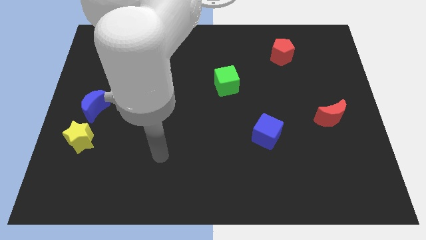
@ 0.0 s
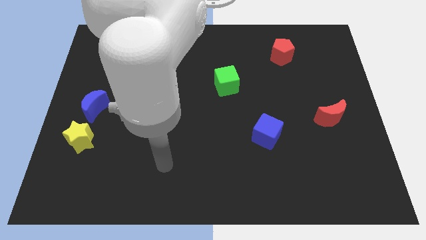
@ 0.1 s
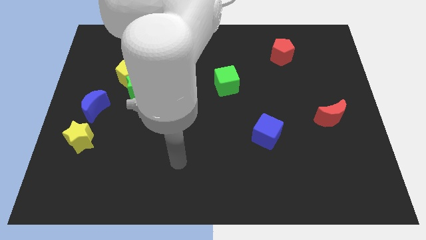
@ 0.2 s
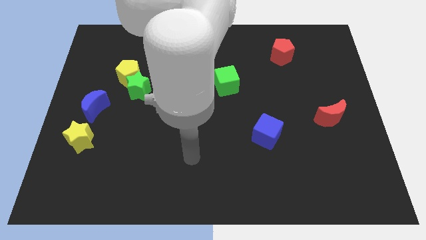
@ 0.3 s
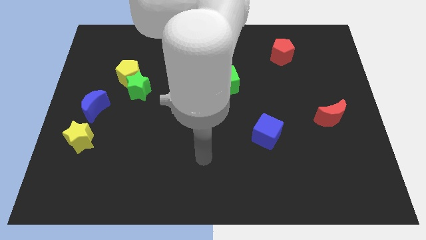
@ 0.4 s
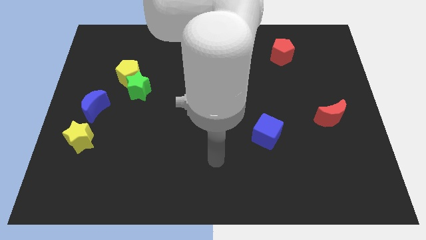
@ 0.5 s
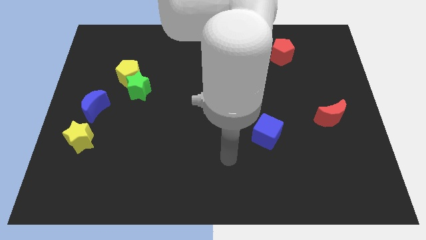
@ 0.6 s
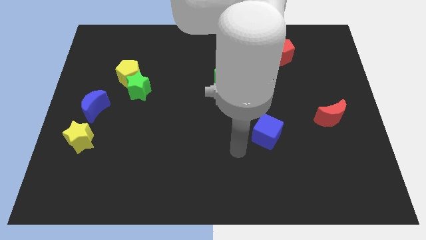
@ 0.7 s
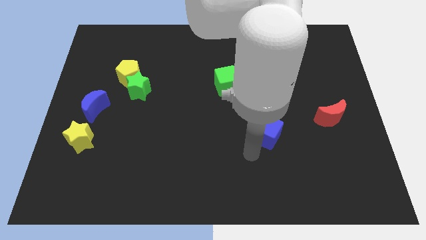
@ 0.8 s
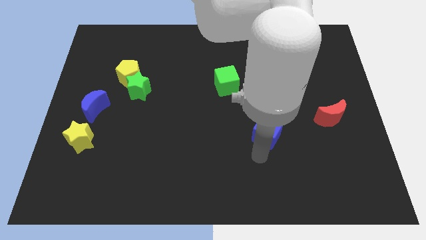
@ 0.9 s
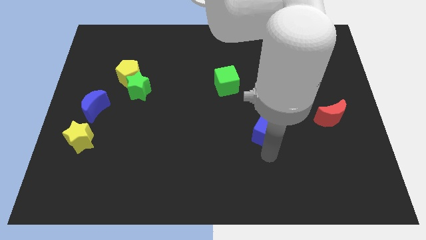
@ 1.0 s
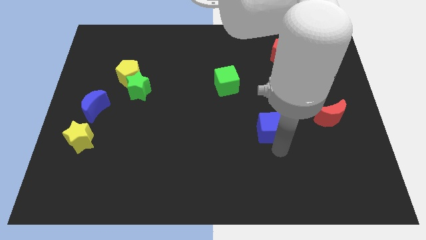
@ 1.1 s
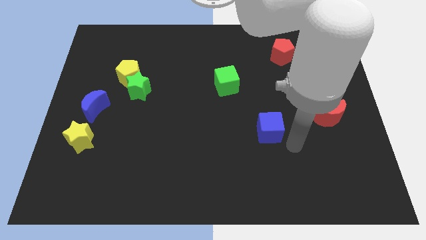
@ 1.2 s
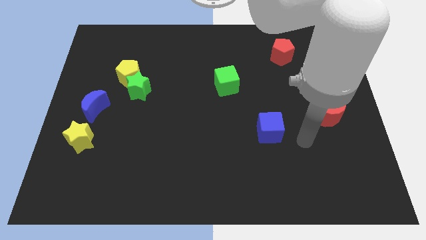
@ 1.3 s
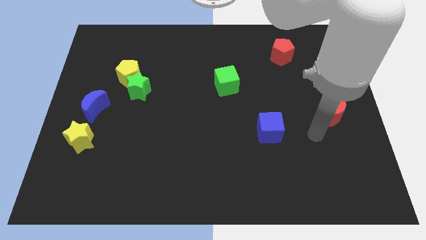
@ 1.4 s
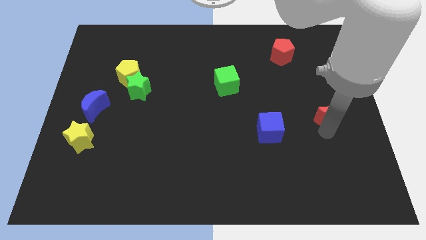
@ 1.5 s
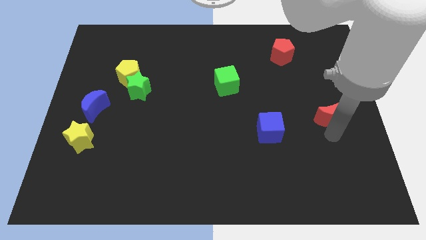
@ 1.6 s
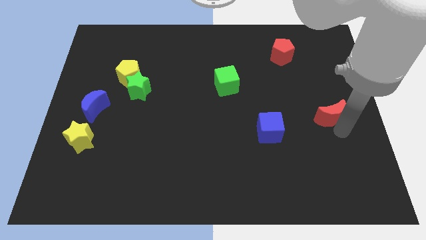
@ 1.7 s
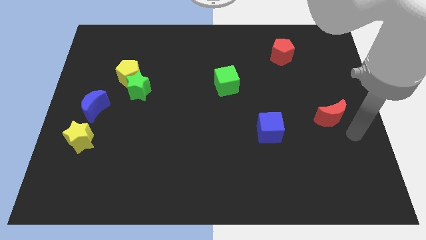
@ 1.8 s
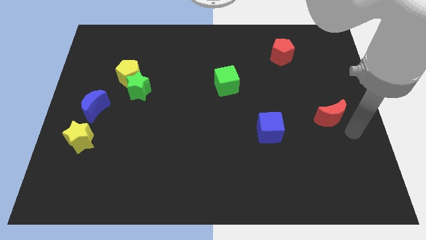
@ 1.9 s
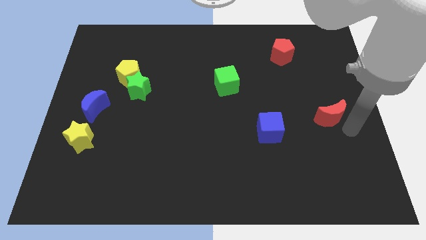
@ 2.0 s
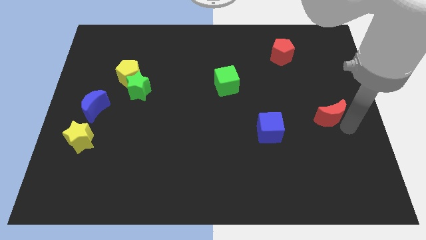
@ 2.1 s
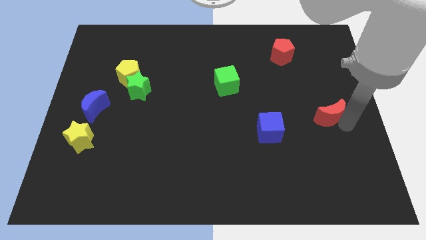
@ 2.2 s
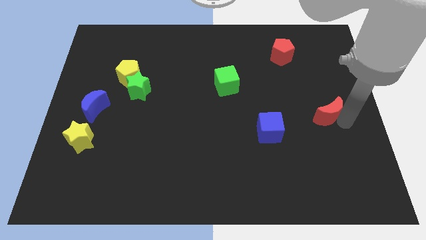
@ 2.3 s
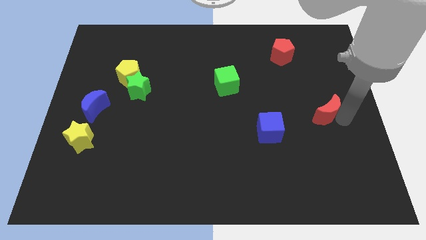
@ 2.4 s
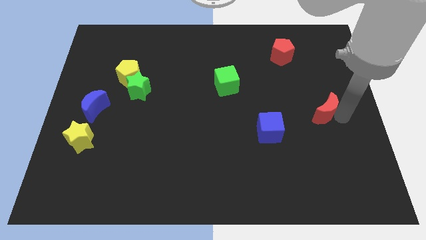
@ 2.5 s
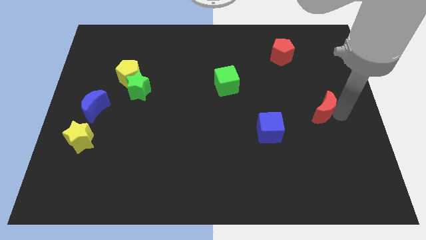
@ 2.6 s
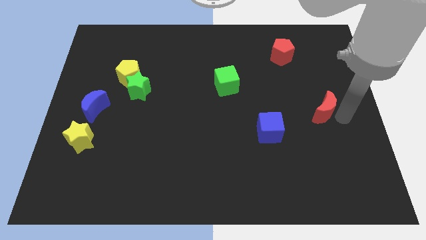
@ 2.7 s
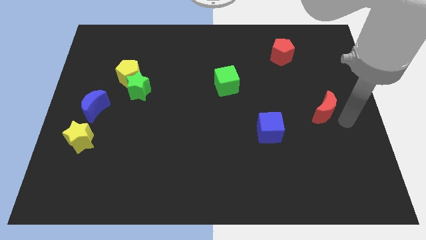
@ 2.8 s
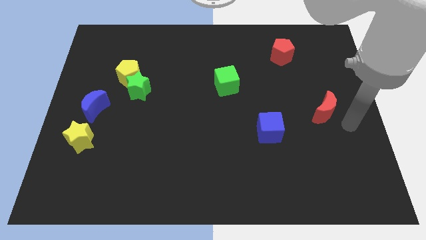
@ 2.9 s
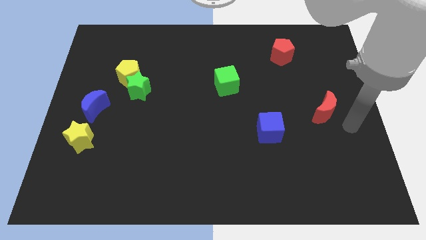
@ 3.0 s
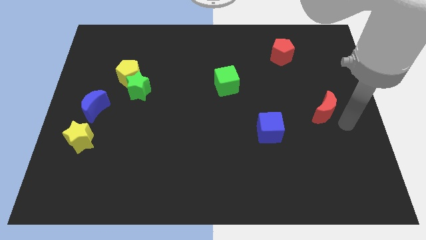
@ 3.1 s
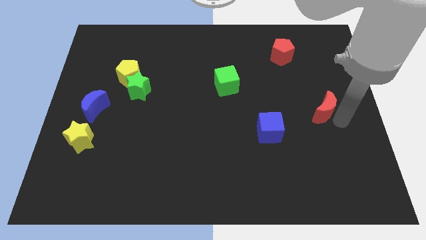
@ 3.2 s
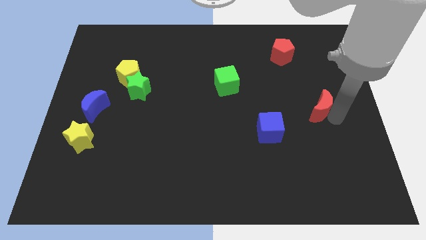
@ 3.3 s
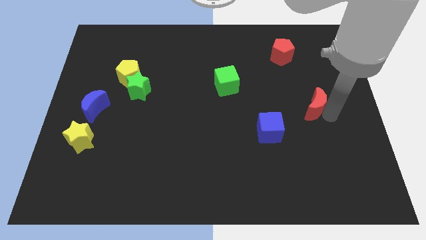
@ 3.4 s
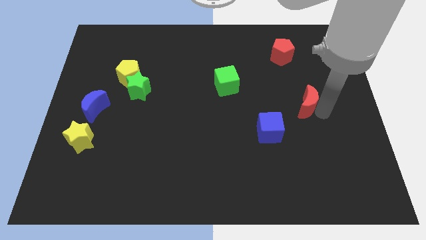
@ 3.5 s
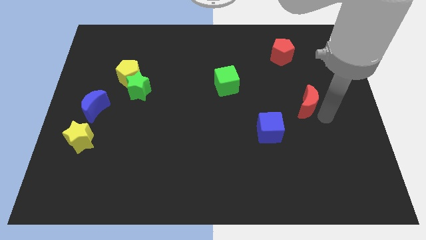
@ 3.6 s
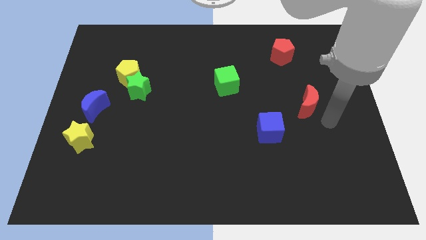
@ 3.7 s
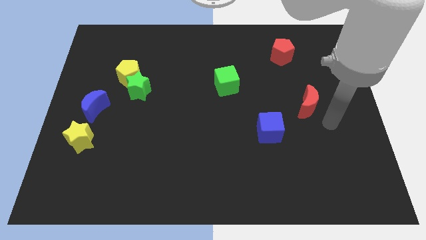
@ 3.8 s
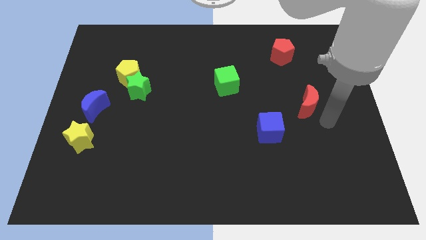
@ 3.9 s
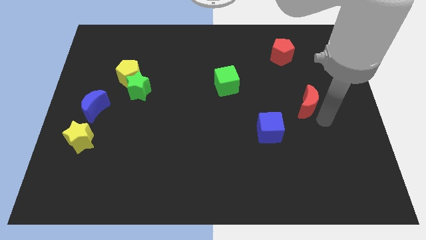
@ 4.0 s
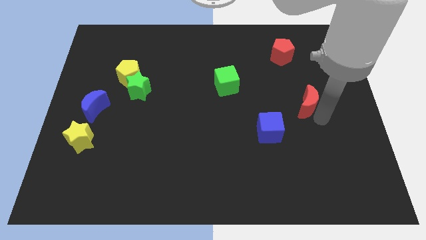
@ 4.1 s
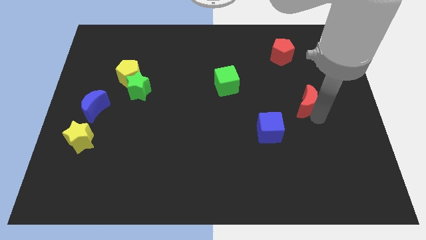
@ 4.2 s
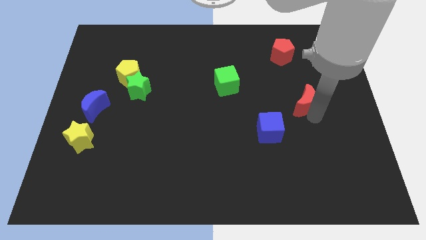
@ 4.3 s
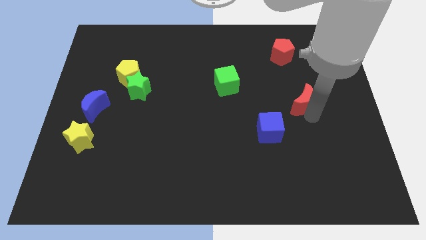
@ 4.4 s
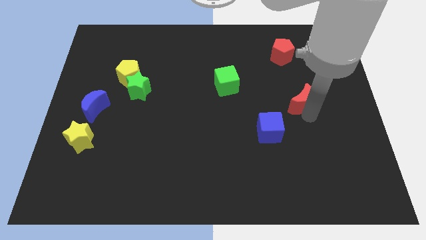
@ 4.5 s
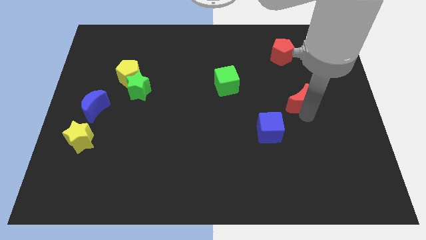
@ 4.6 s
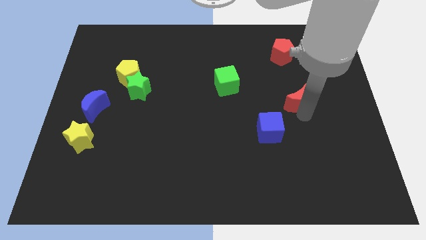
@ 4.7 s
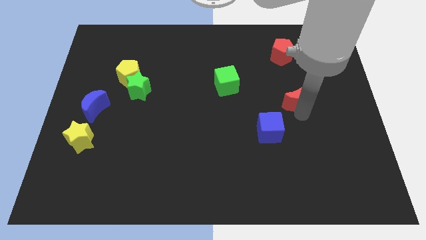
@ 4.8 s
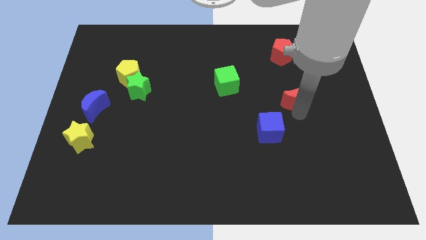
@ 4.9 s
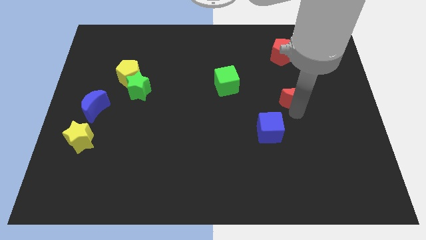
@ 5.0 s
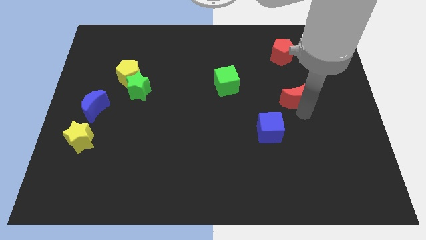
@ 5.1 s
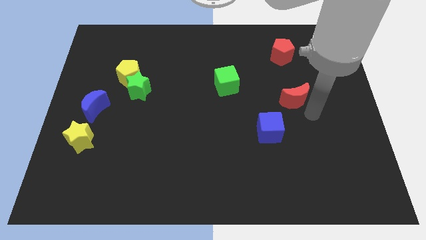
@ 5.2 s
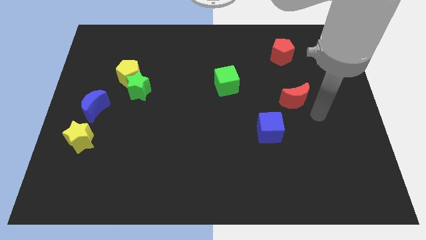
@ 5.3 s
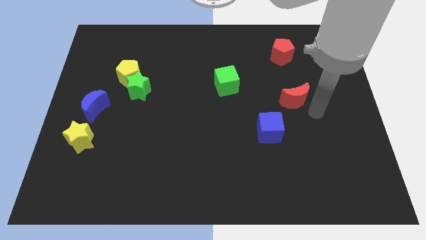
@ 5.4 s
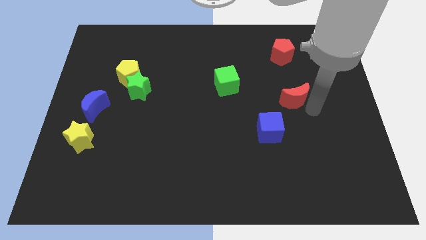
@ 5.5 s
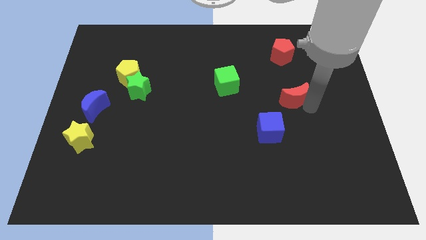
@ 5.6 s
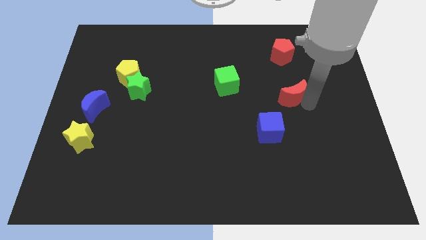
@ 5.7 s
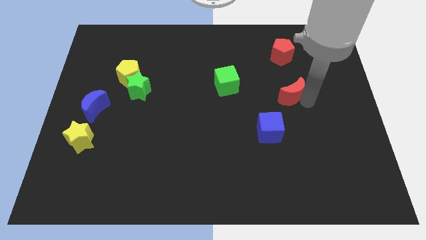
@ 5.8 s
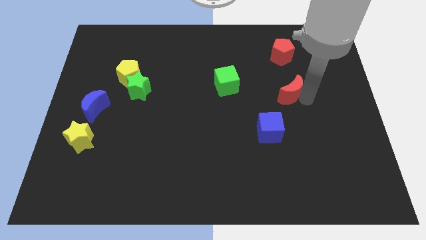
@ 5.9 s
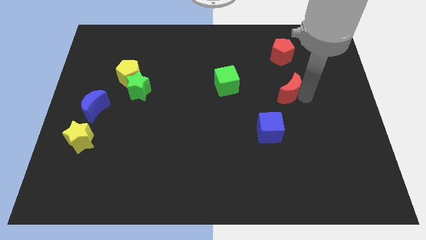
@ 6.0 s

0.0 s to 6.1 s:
push the red moon right of the green cube

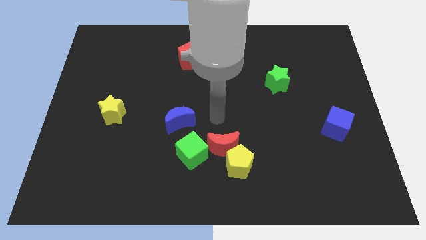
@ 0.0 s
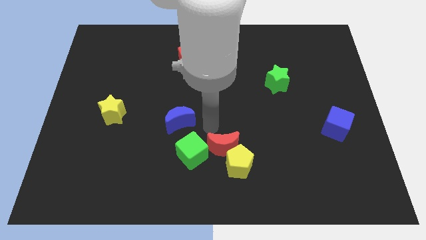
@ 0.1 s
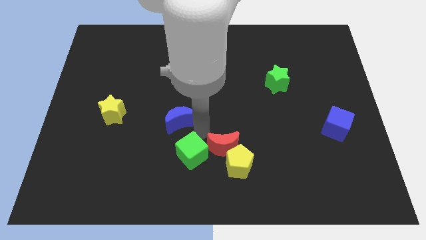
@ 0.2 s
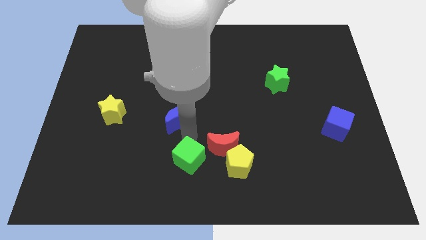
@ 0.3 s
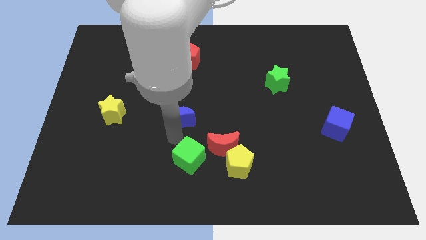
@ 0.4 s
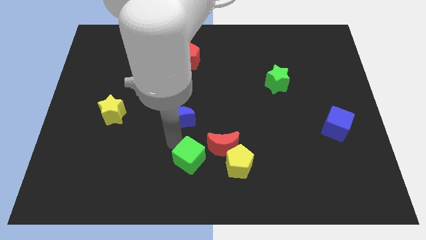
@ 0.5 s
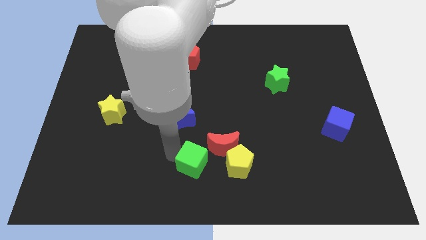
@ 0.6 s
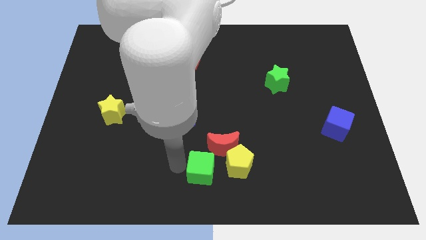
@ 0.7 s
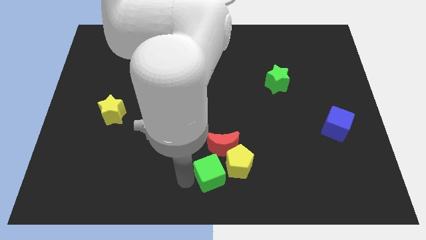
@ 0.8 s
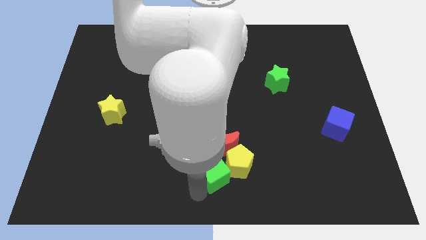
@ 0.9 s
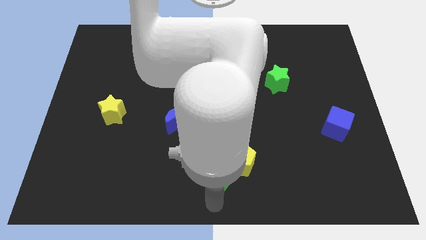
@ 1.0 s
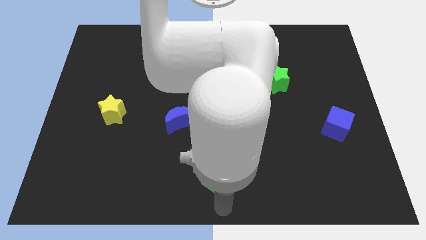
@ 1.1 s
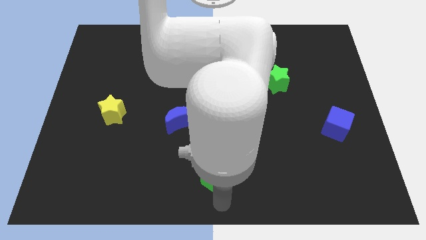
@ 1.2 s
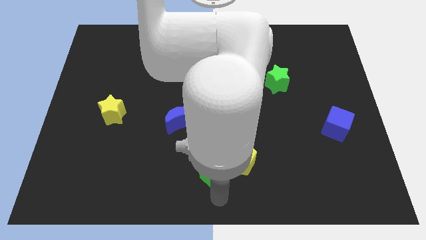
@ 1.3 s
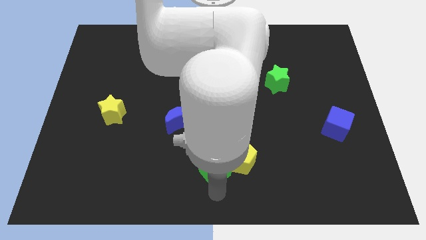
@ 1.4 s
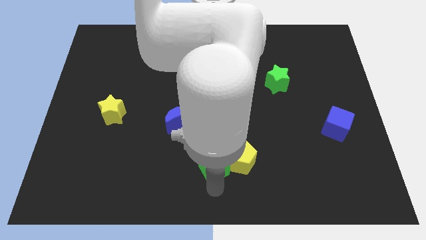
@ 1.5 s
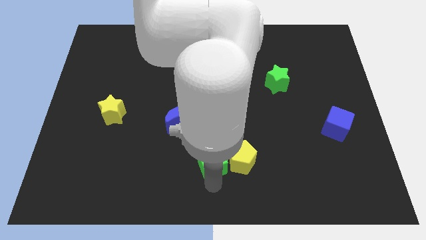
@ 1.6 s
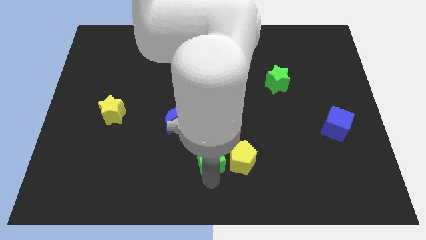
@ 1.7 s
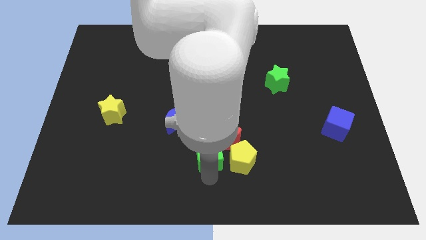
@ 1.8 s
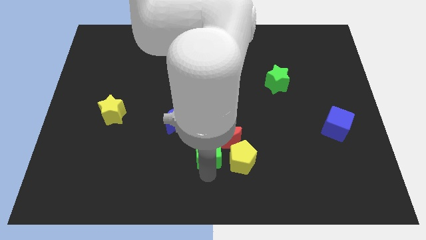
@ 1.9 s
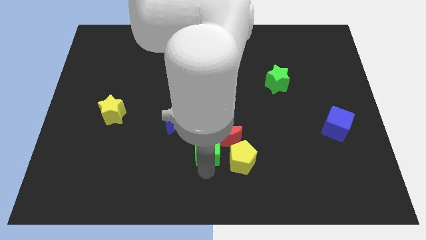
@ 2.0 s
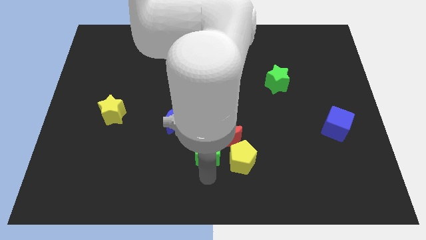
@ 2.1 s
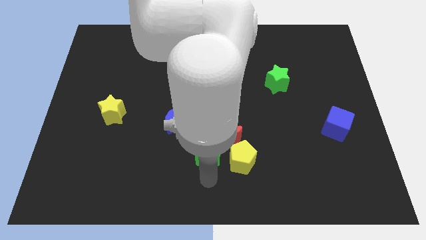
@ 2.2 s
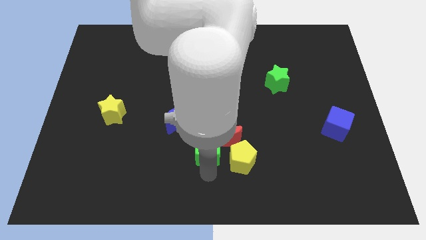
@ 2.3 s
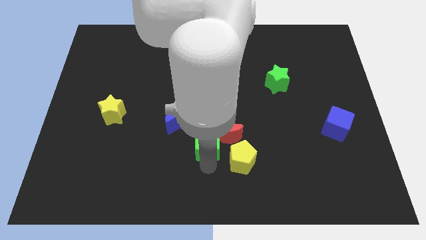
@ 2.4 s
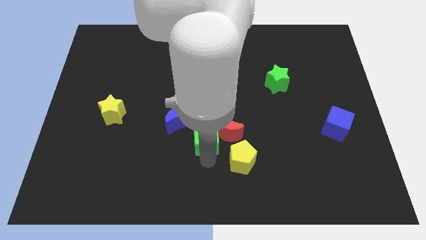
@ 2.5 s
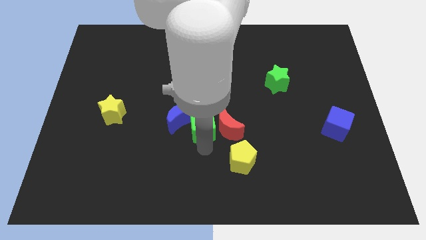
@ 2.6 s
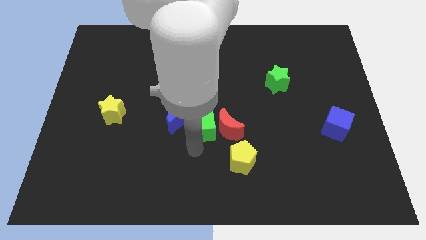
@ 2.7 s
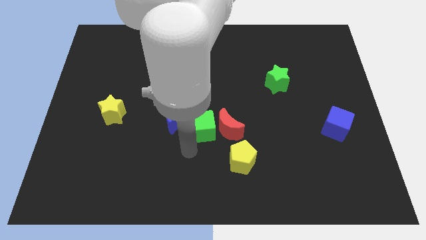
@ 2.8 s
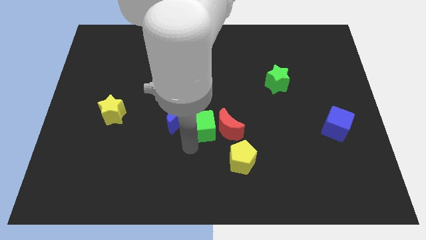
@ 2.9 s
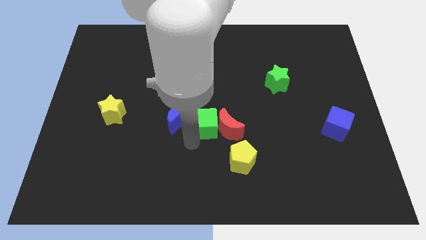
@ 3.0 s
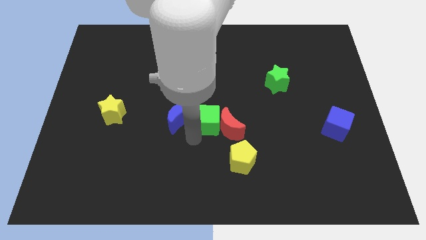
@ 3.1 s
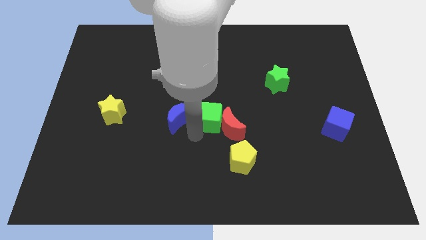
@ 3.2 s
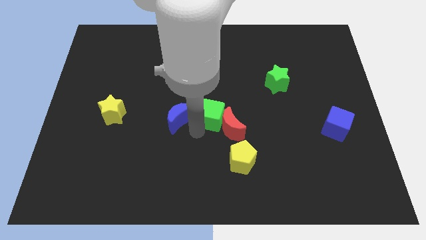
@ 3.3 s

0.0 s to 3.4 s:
push the green cube to the top side of the red moon
